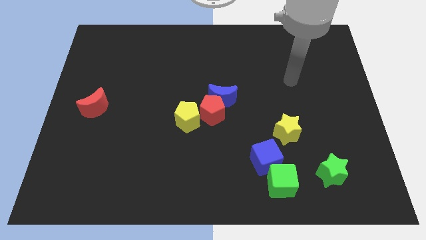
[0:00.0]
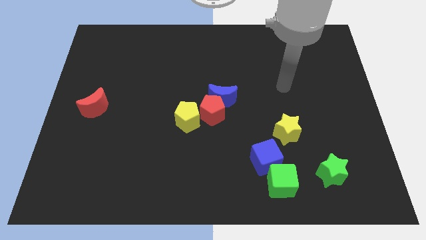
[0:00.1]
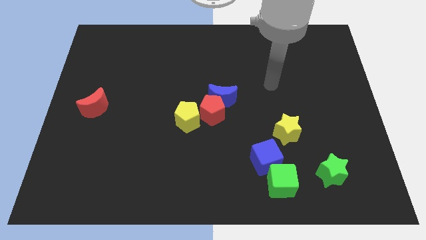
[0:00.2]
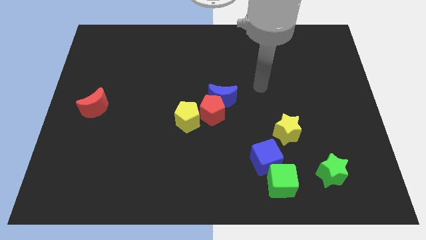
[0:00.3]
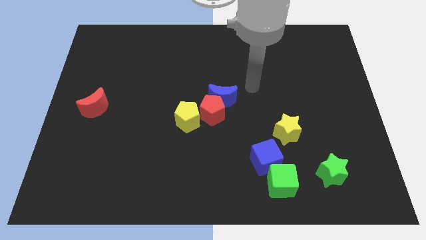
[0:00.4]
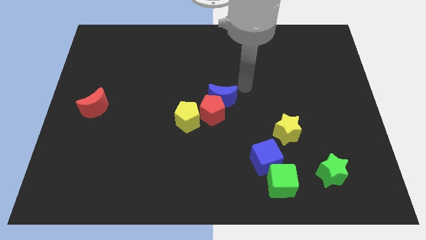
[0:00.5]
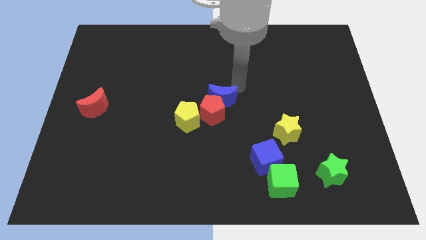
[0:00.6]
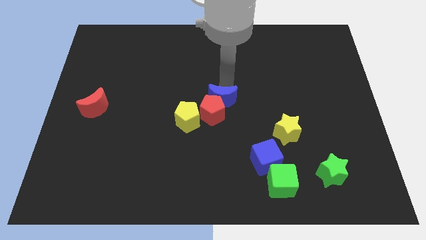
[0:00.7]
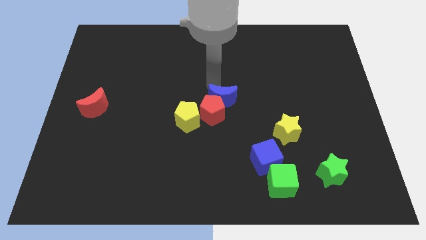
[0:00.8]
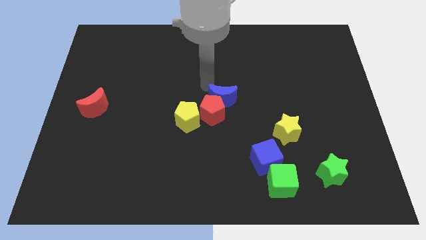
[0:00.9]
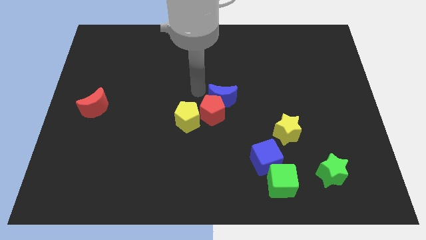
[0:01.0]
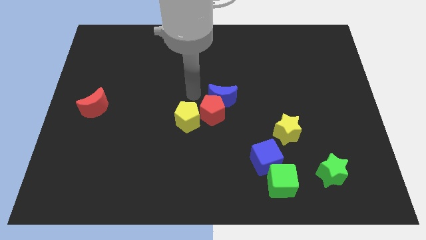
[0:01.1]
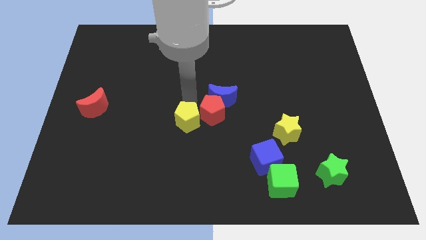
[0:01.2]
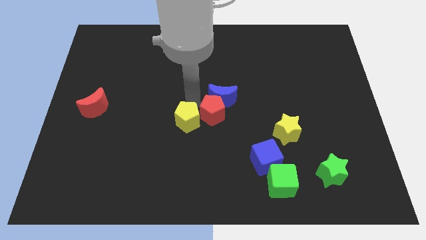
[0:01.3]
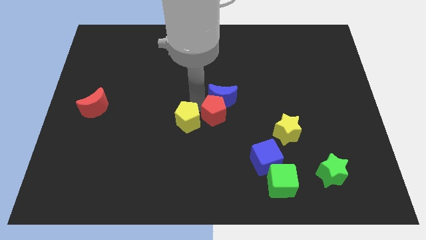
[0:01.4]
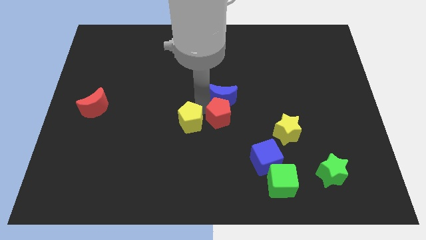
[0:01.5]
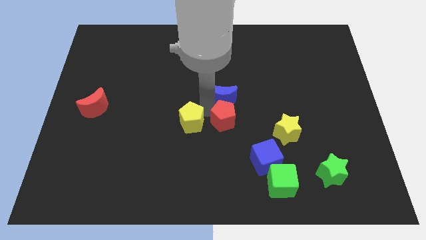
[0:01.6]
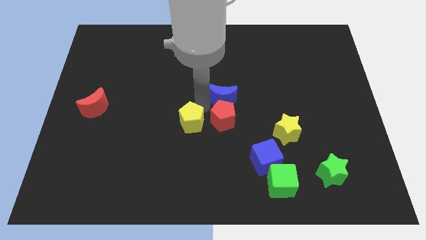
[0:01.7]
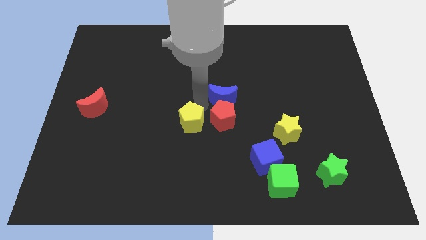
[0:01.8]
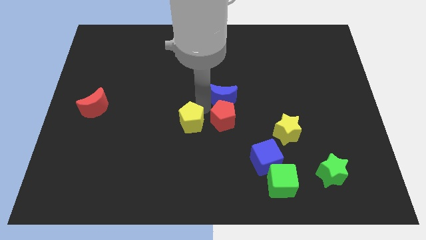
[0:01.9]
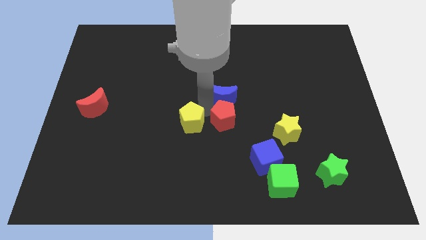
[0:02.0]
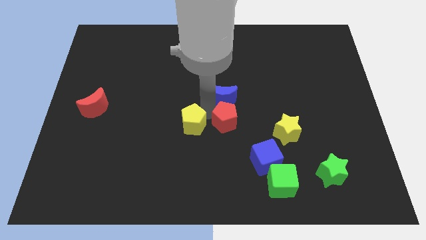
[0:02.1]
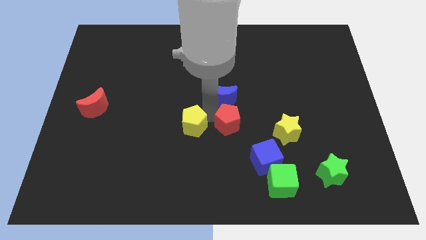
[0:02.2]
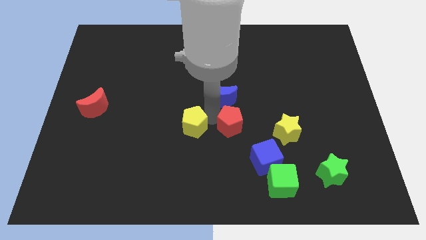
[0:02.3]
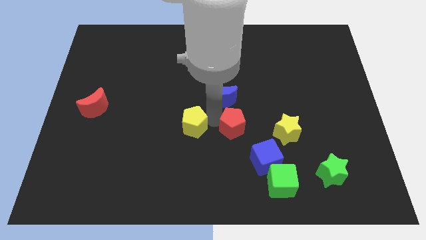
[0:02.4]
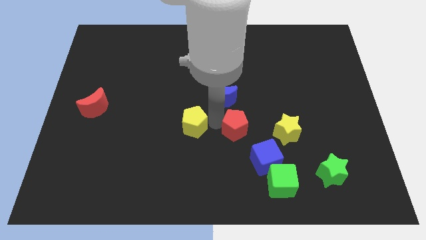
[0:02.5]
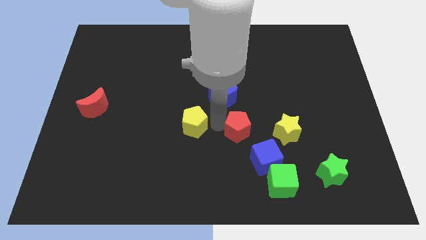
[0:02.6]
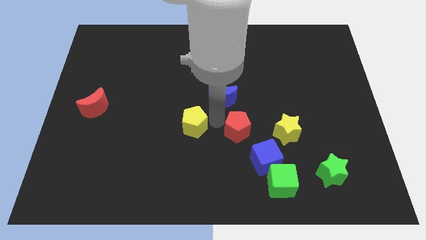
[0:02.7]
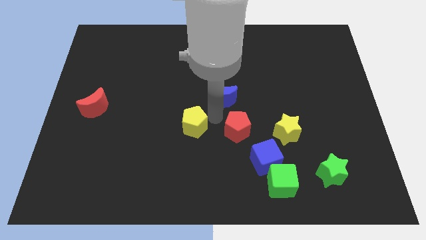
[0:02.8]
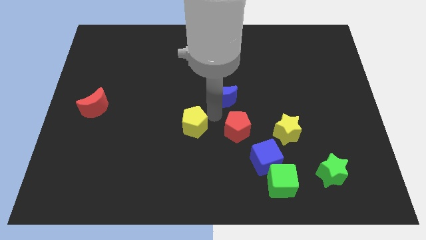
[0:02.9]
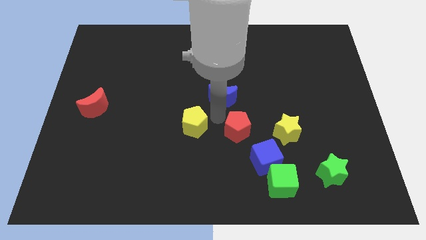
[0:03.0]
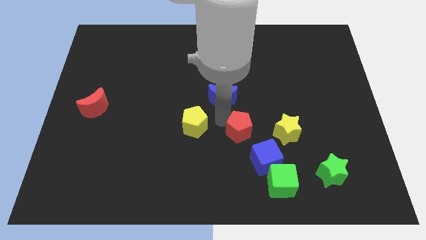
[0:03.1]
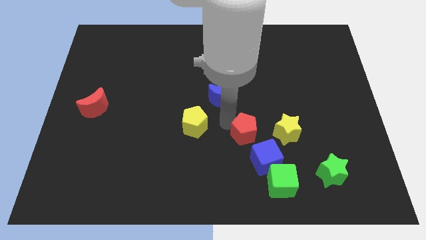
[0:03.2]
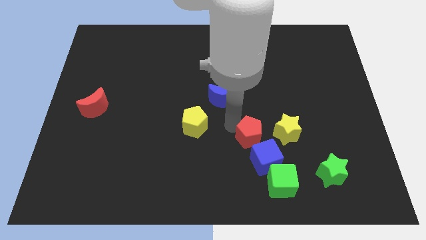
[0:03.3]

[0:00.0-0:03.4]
separate the red pentagon from the blue moon and yellow pentagon

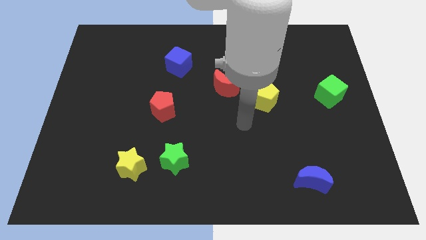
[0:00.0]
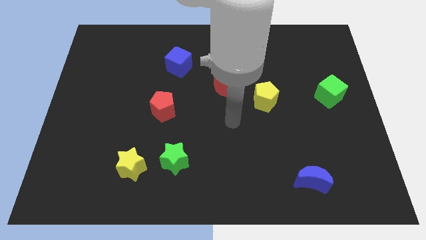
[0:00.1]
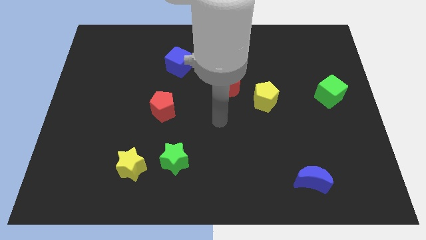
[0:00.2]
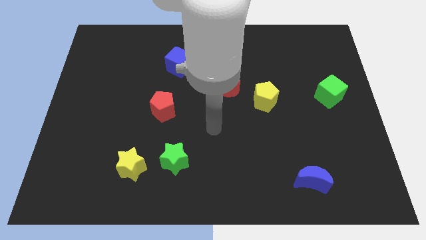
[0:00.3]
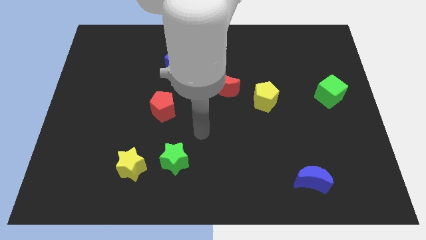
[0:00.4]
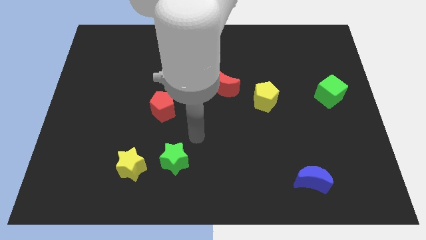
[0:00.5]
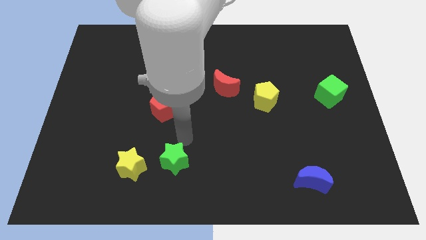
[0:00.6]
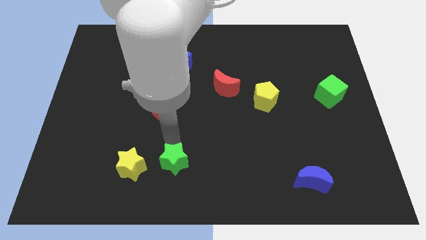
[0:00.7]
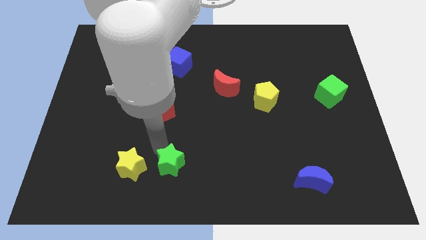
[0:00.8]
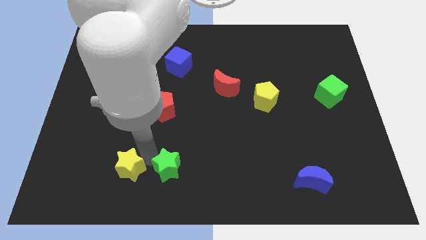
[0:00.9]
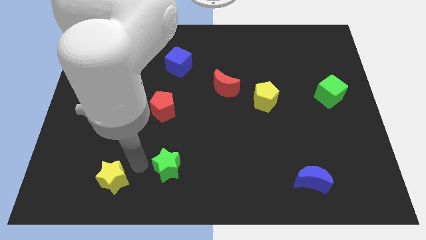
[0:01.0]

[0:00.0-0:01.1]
move the green star away from the yellow star

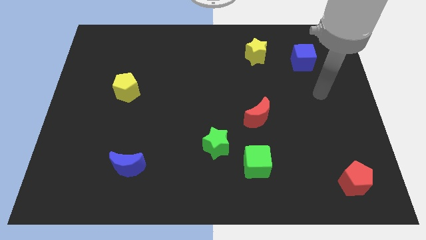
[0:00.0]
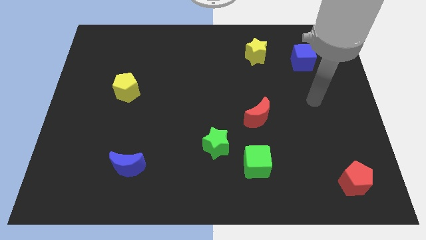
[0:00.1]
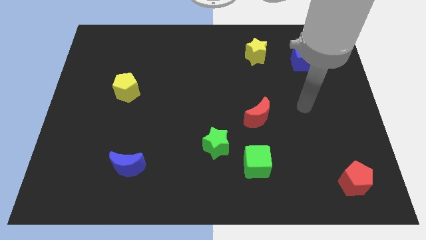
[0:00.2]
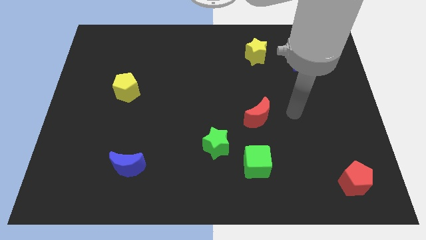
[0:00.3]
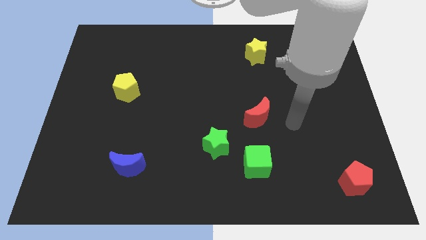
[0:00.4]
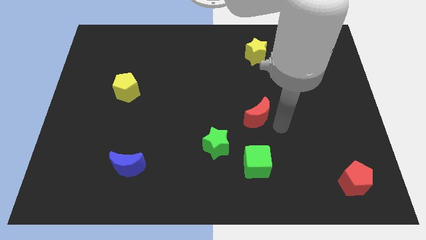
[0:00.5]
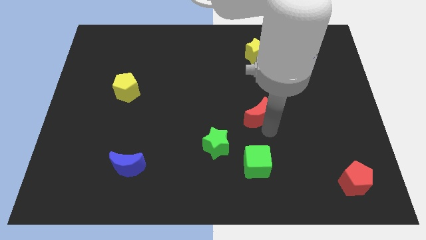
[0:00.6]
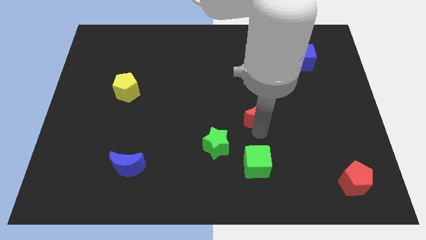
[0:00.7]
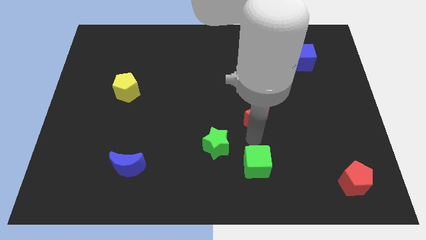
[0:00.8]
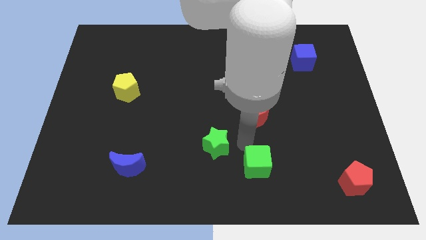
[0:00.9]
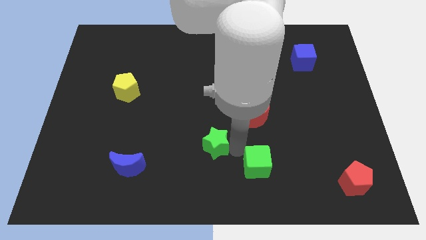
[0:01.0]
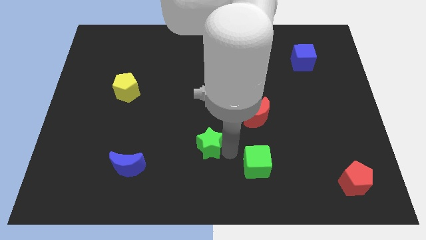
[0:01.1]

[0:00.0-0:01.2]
separate the green cube from the green star

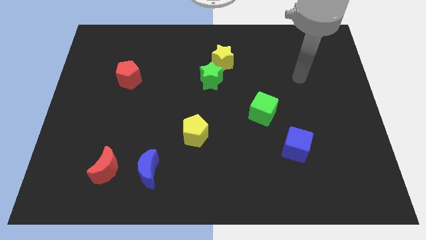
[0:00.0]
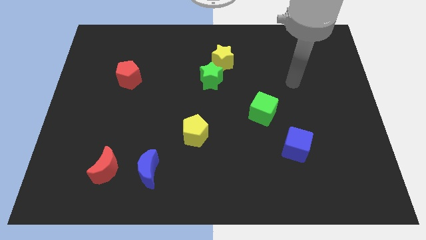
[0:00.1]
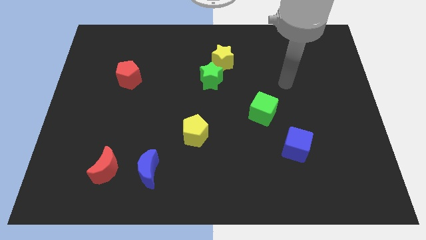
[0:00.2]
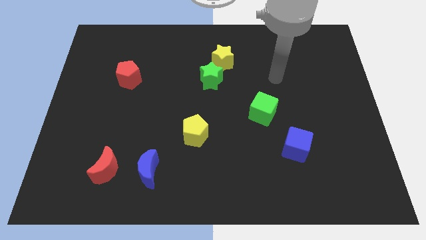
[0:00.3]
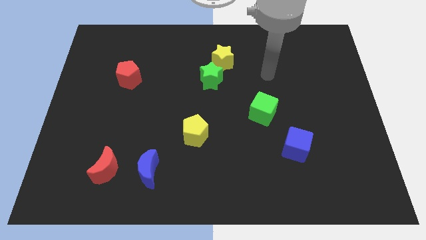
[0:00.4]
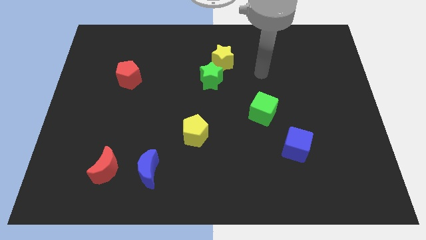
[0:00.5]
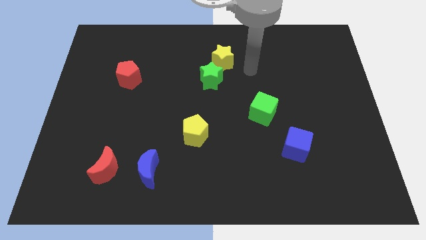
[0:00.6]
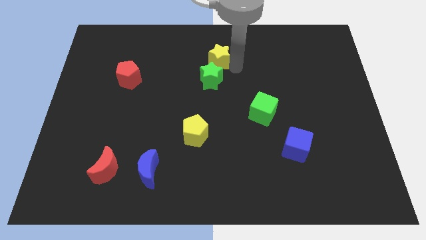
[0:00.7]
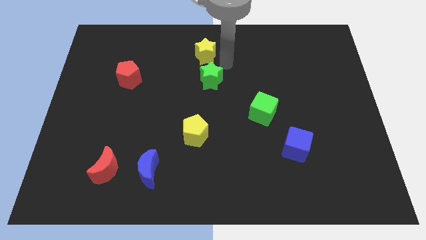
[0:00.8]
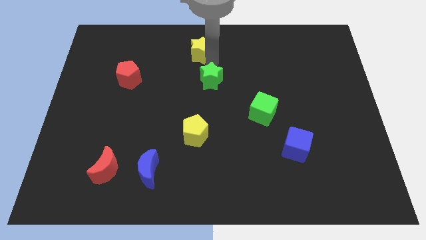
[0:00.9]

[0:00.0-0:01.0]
pull the green star apart from the yellow star

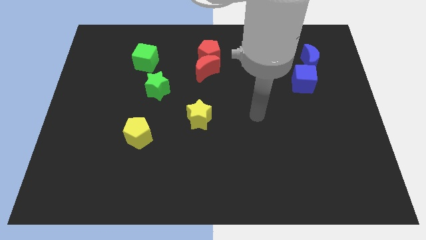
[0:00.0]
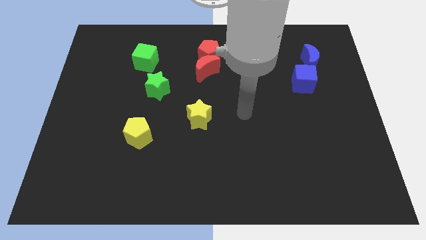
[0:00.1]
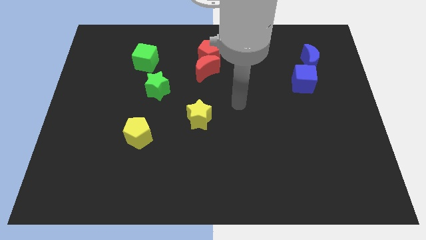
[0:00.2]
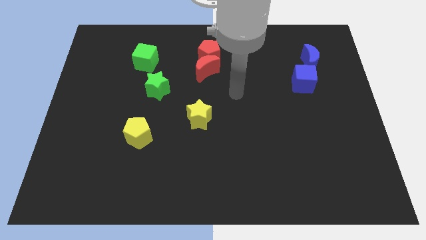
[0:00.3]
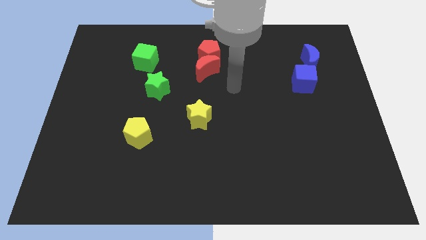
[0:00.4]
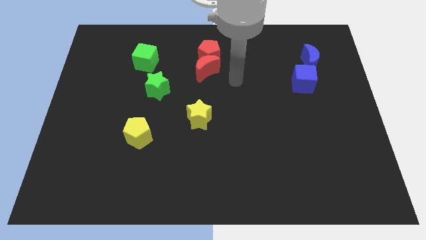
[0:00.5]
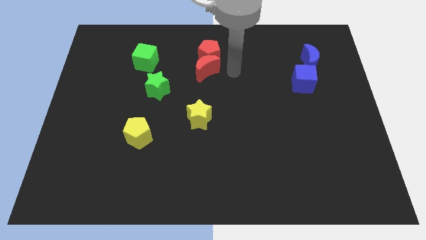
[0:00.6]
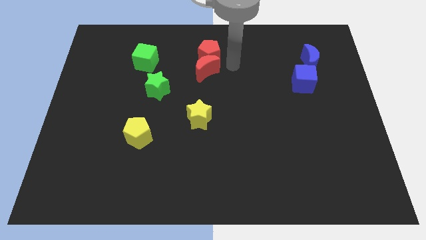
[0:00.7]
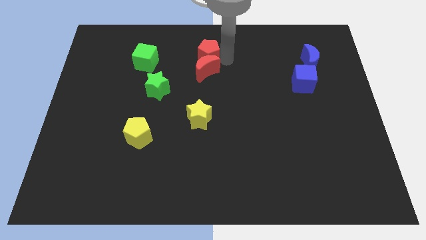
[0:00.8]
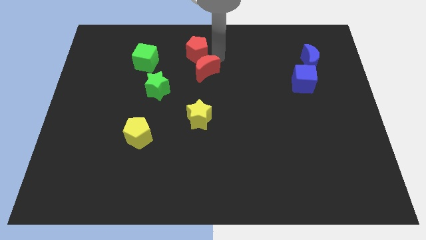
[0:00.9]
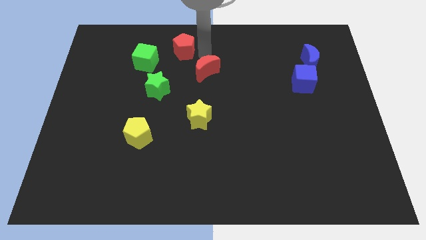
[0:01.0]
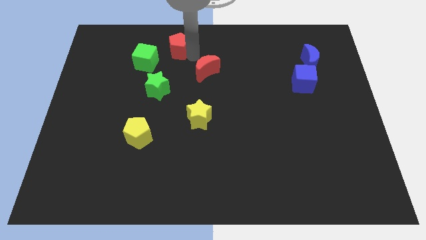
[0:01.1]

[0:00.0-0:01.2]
pull the red moon apart from the red pentagon

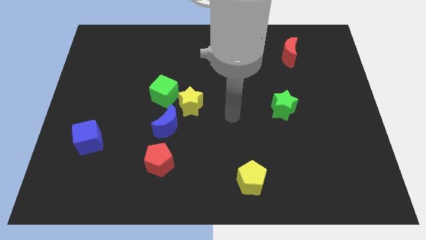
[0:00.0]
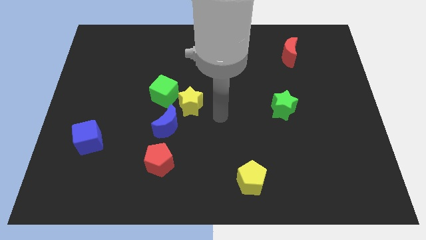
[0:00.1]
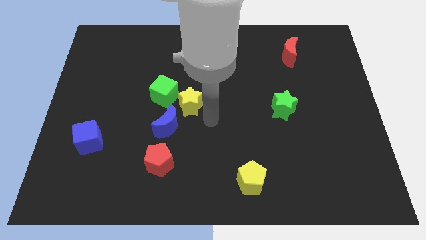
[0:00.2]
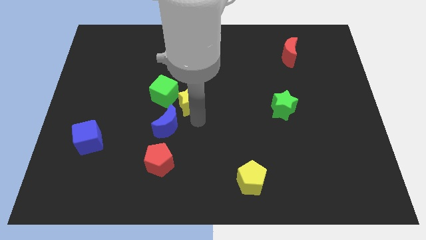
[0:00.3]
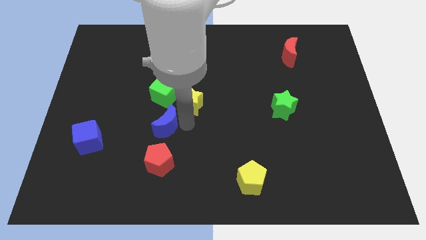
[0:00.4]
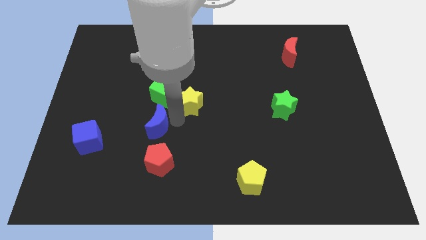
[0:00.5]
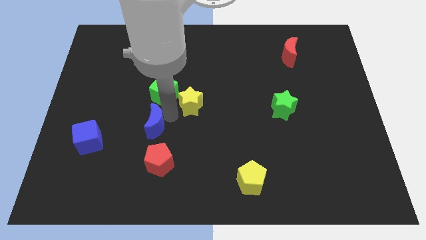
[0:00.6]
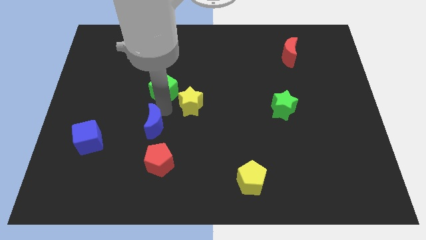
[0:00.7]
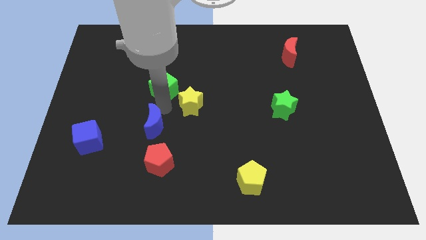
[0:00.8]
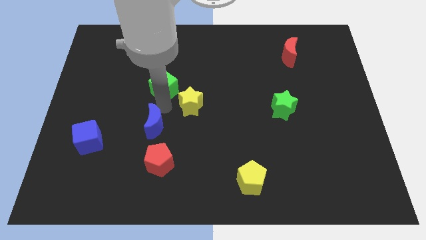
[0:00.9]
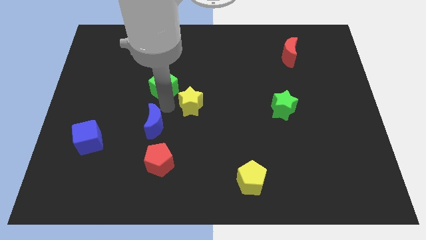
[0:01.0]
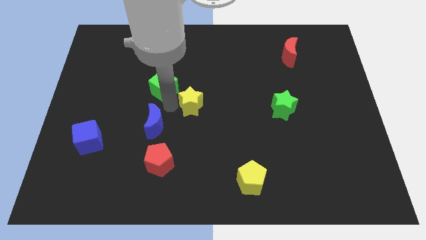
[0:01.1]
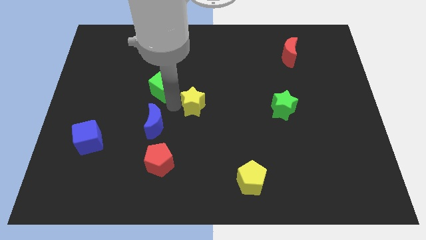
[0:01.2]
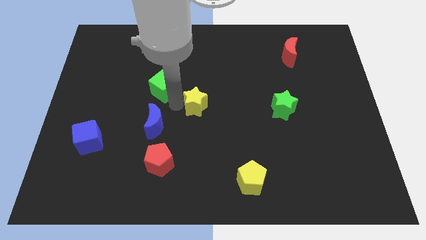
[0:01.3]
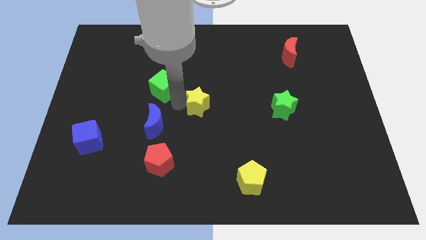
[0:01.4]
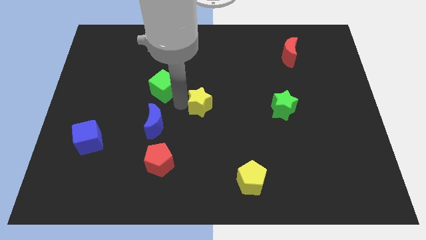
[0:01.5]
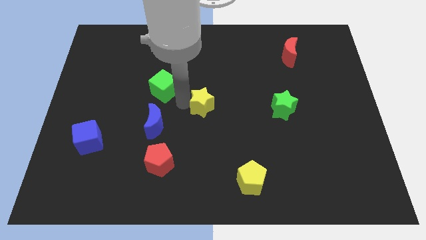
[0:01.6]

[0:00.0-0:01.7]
pull the yellow star apart from the green cube and blue moon
